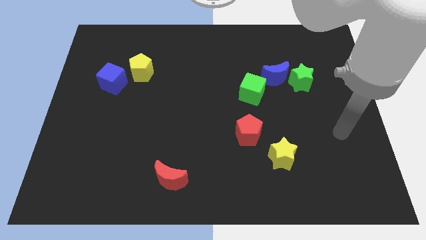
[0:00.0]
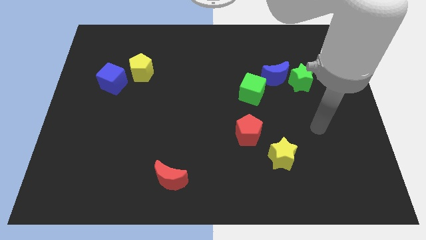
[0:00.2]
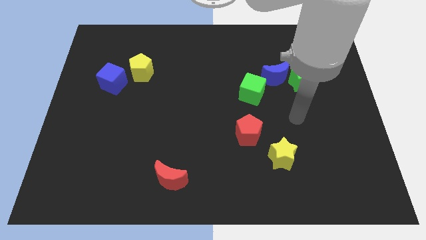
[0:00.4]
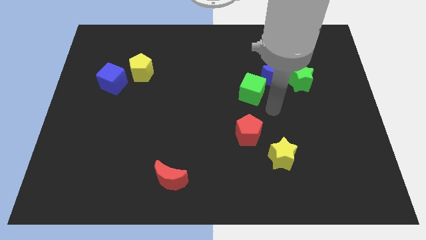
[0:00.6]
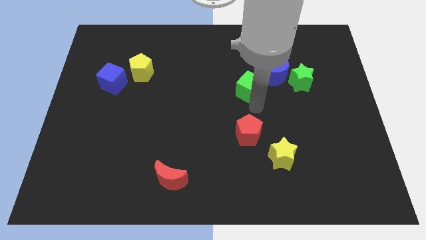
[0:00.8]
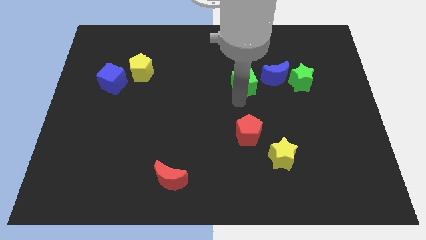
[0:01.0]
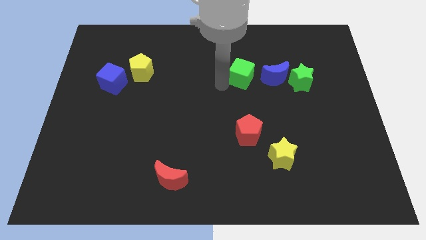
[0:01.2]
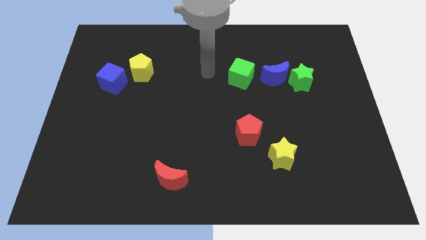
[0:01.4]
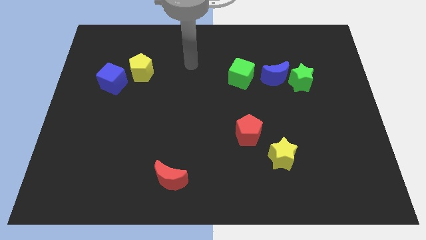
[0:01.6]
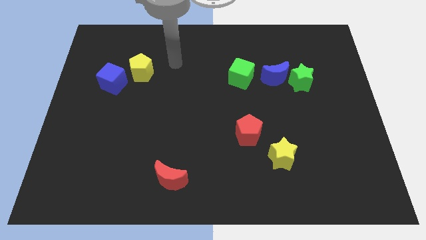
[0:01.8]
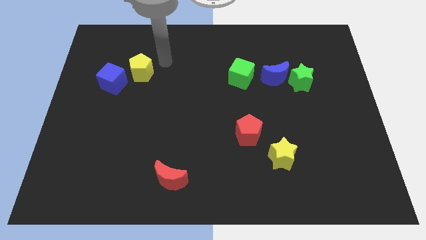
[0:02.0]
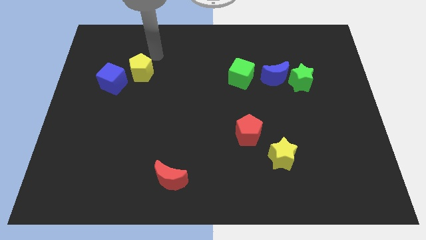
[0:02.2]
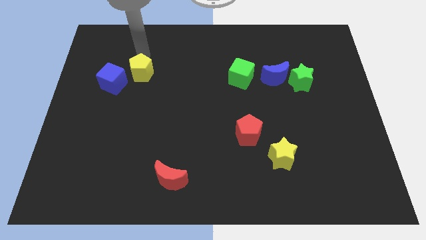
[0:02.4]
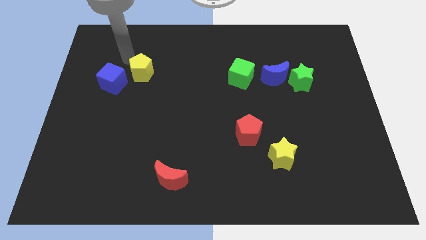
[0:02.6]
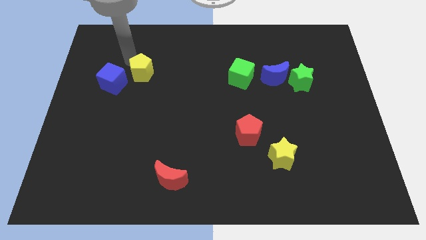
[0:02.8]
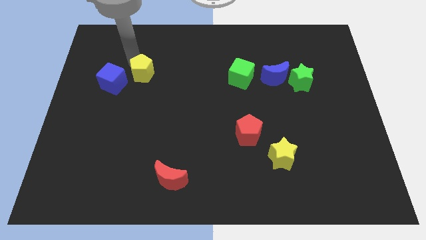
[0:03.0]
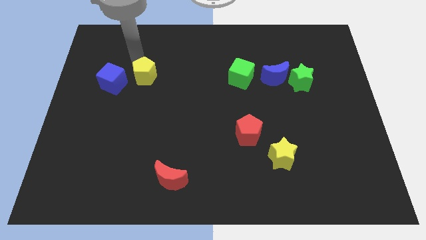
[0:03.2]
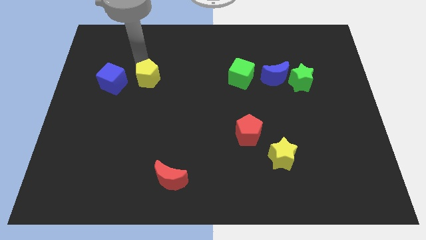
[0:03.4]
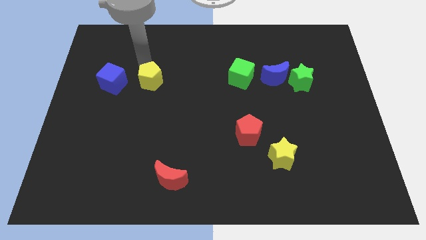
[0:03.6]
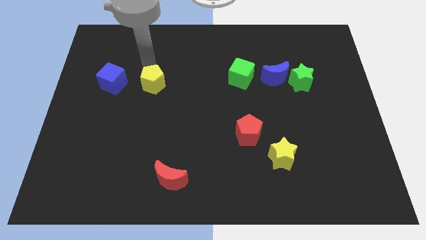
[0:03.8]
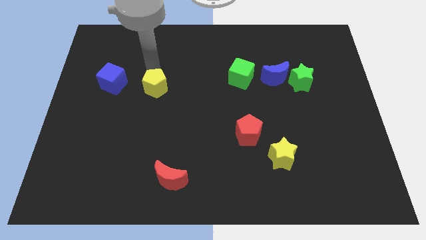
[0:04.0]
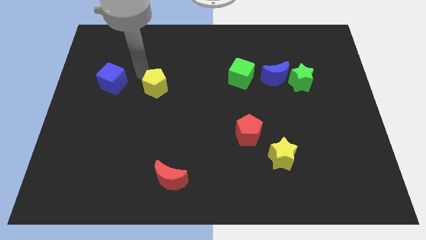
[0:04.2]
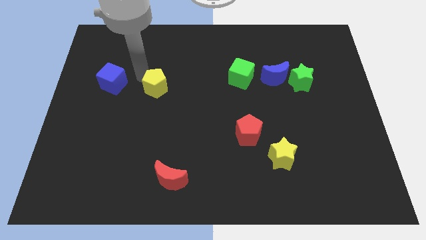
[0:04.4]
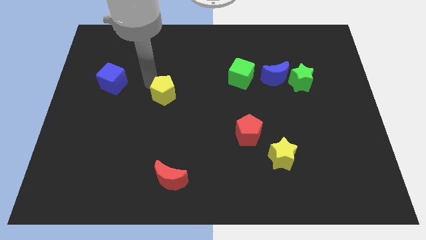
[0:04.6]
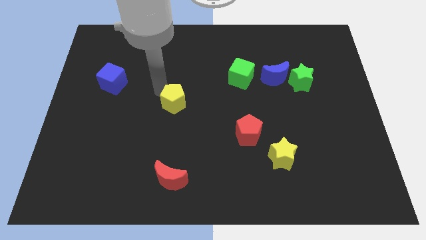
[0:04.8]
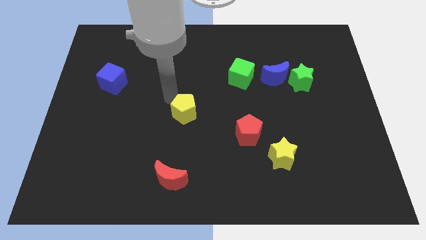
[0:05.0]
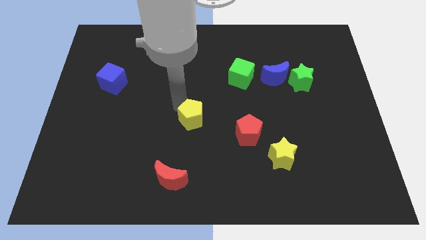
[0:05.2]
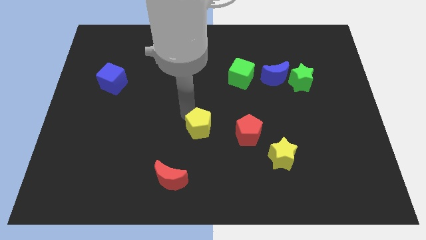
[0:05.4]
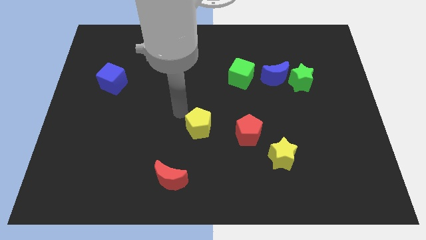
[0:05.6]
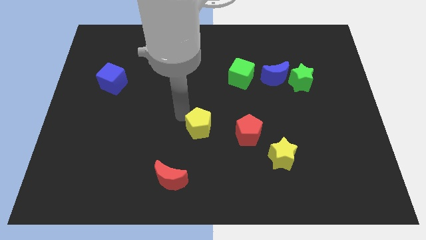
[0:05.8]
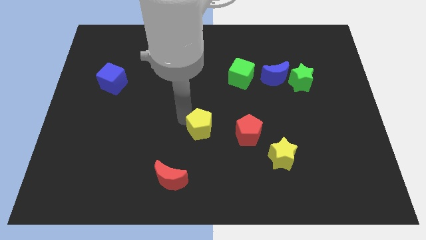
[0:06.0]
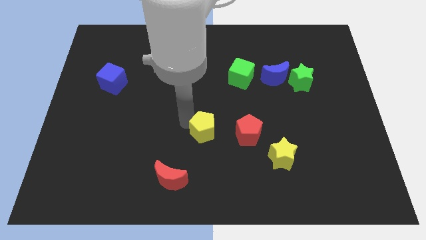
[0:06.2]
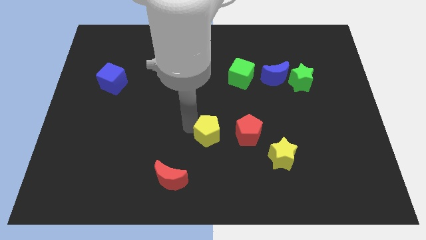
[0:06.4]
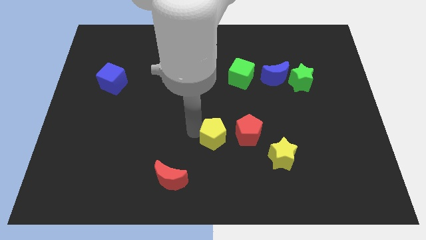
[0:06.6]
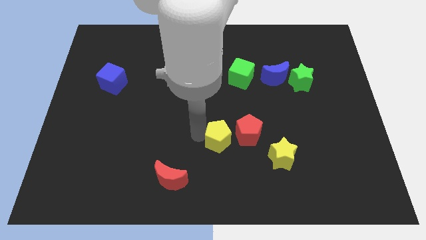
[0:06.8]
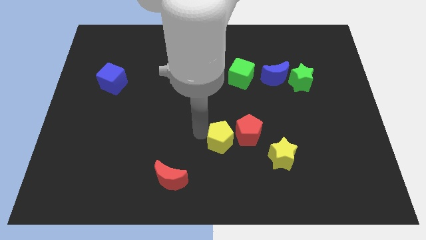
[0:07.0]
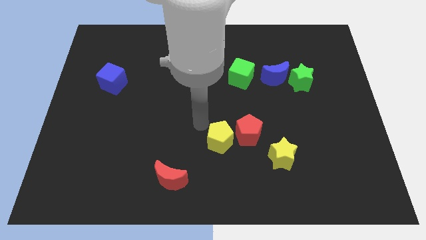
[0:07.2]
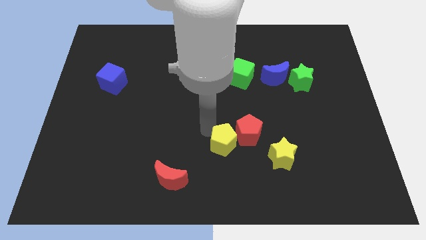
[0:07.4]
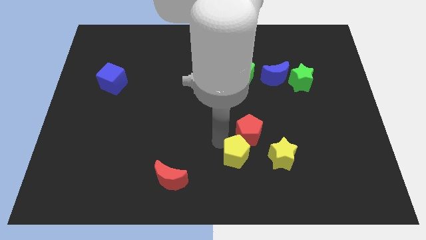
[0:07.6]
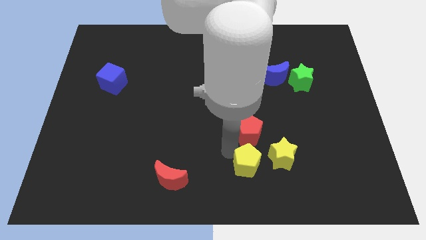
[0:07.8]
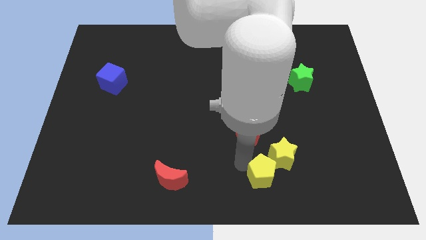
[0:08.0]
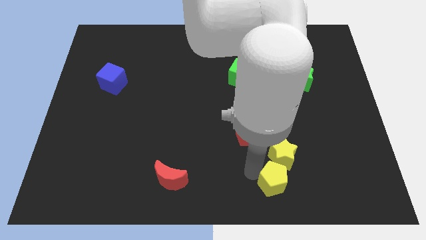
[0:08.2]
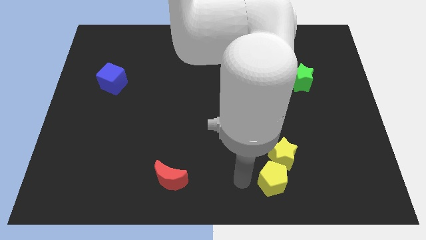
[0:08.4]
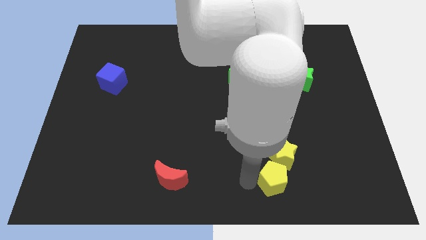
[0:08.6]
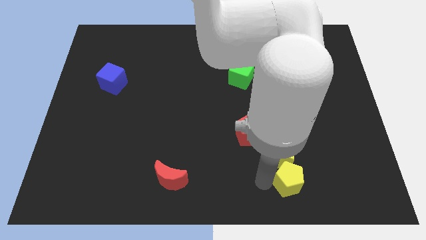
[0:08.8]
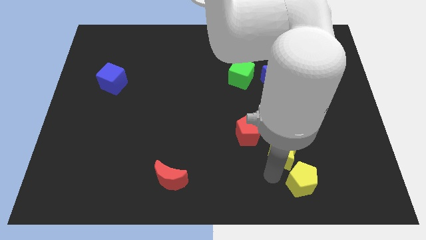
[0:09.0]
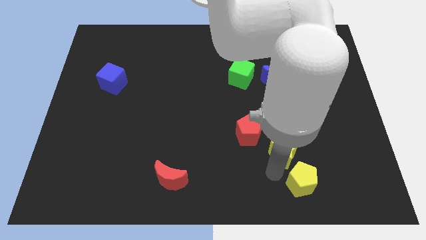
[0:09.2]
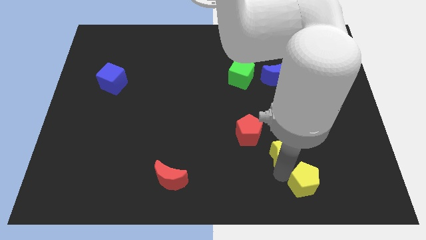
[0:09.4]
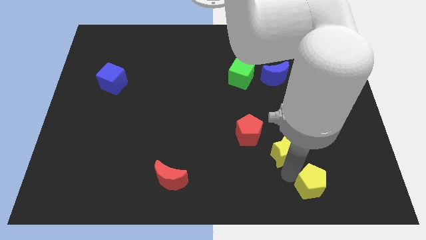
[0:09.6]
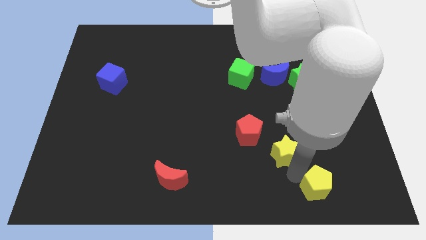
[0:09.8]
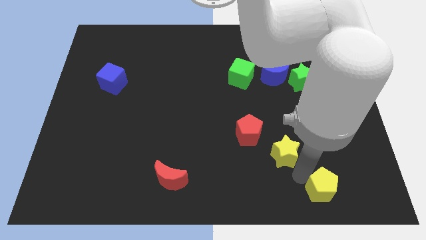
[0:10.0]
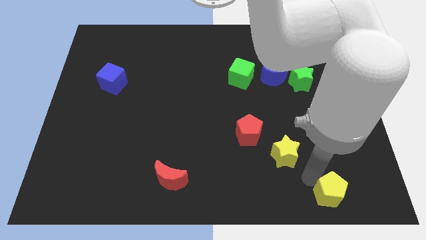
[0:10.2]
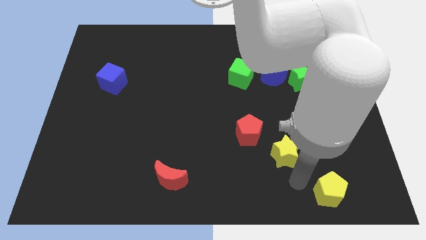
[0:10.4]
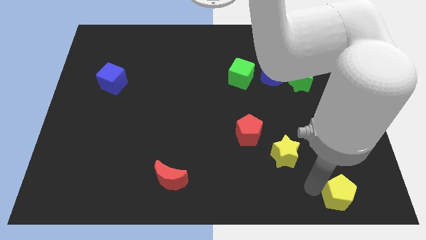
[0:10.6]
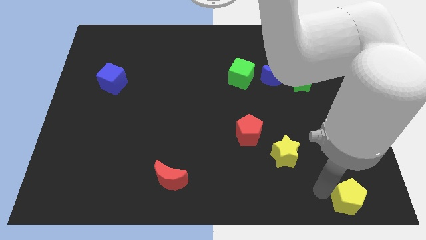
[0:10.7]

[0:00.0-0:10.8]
push the yellow pentagon to the bottom right of the board
